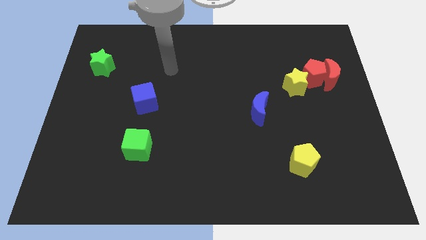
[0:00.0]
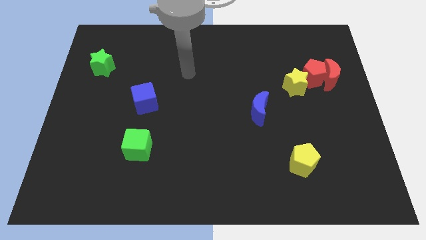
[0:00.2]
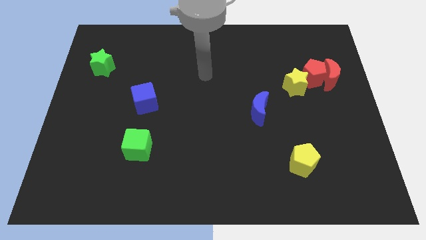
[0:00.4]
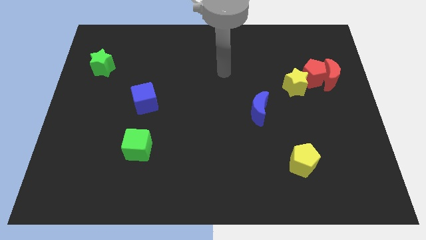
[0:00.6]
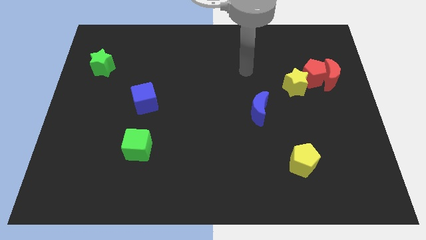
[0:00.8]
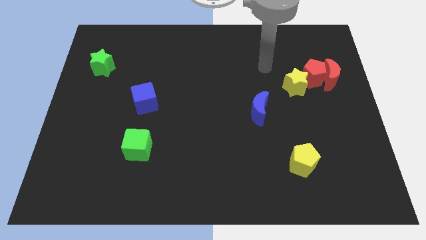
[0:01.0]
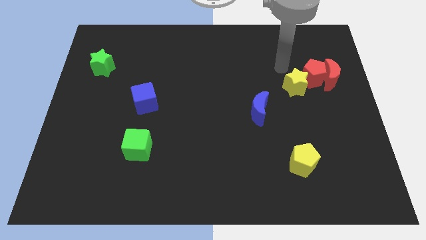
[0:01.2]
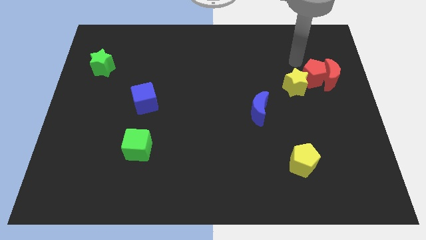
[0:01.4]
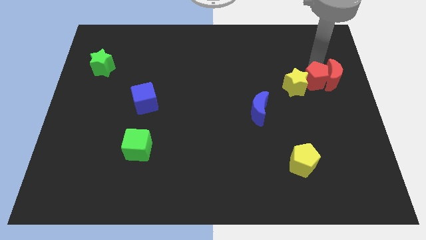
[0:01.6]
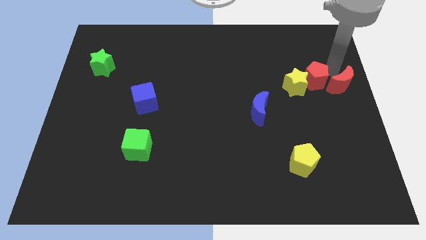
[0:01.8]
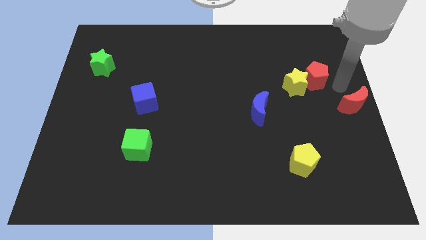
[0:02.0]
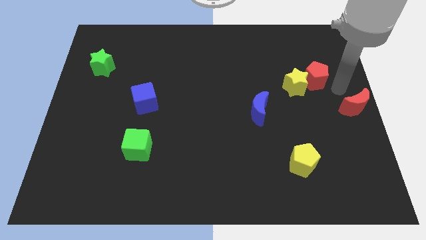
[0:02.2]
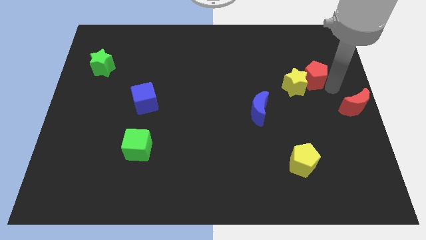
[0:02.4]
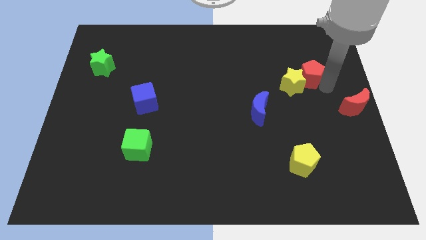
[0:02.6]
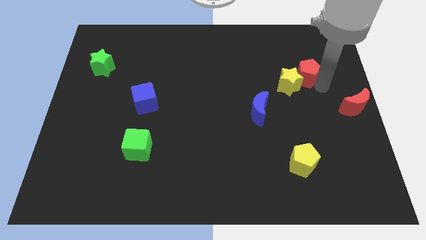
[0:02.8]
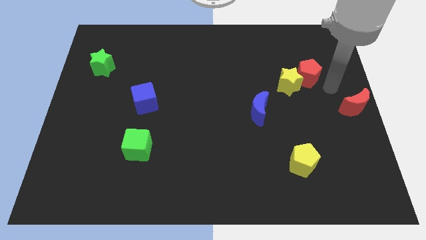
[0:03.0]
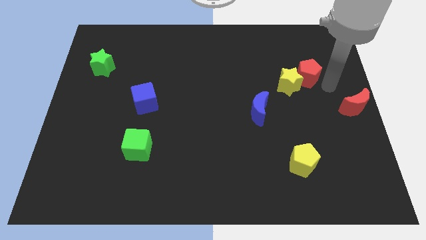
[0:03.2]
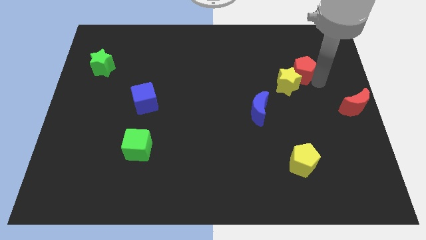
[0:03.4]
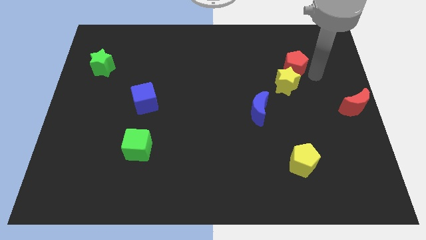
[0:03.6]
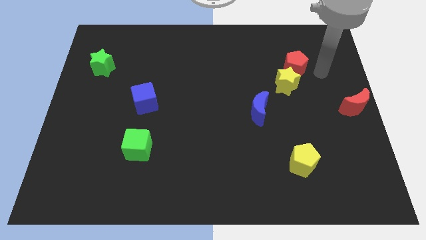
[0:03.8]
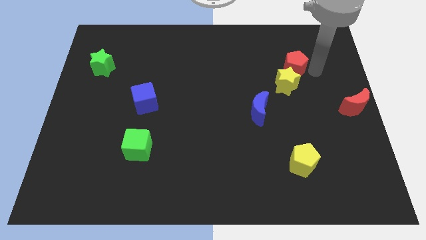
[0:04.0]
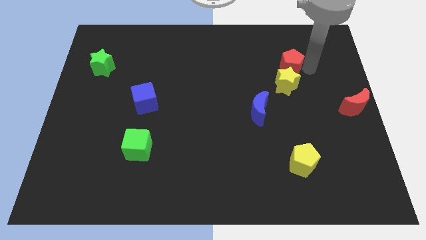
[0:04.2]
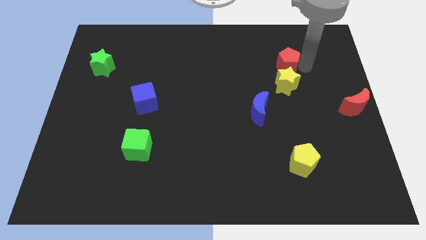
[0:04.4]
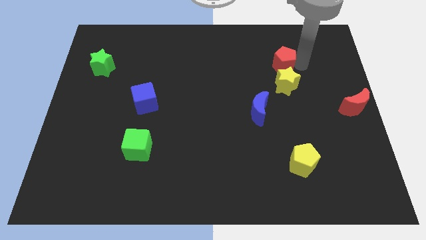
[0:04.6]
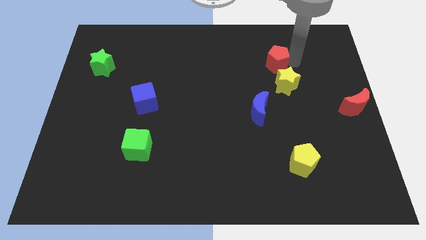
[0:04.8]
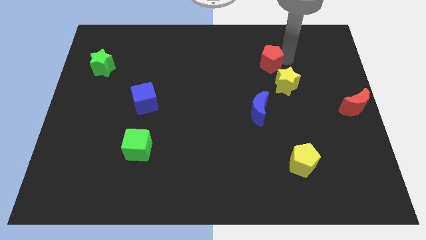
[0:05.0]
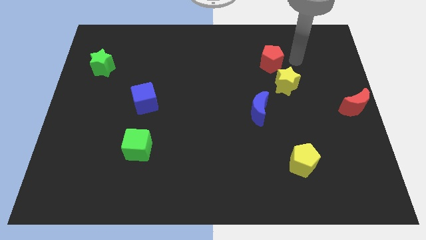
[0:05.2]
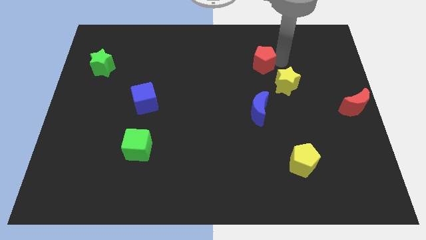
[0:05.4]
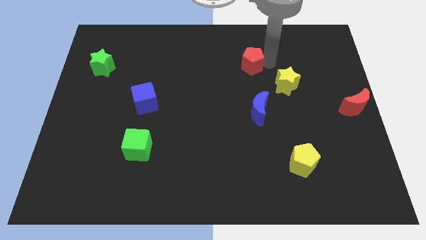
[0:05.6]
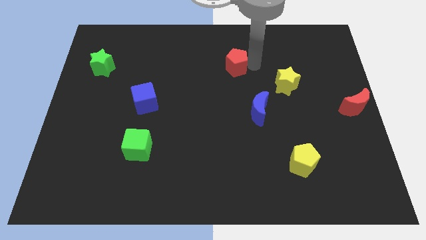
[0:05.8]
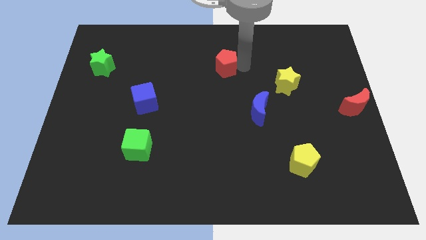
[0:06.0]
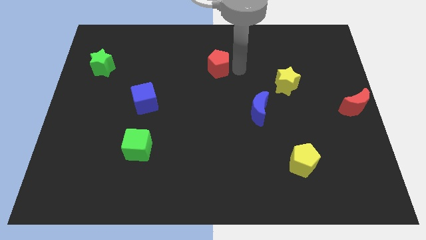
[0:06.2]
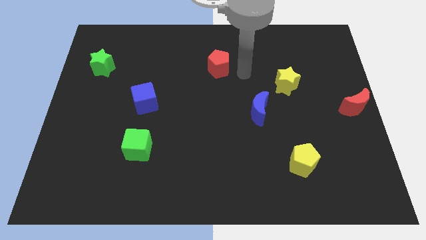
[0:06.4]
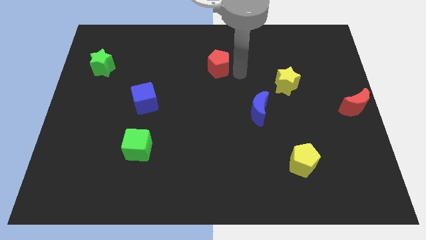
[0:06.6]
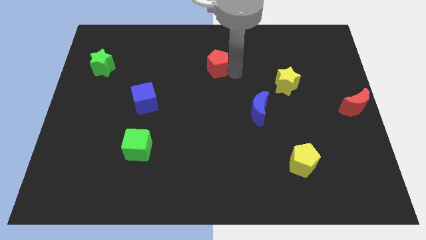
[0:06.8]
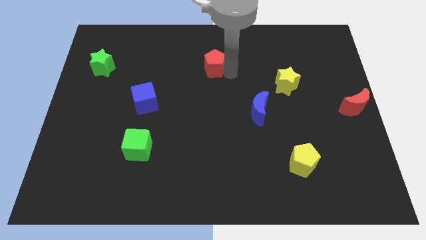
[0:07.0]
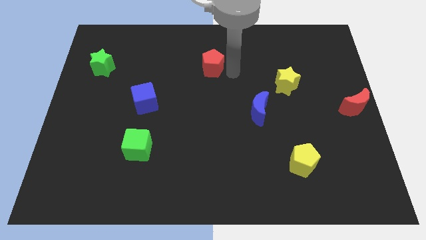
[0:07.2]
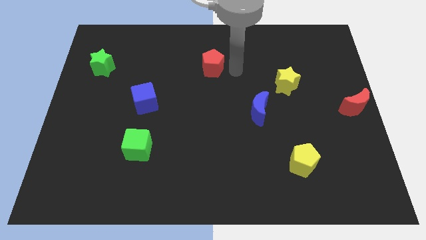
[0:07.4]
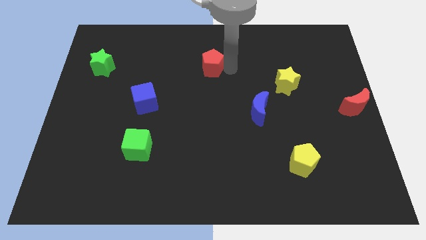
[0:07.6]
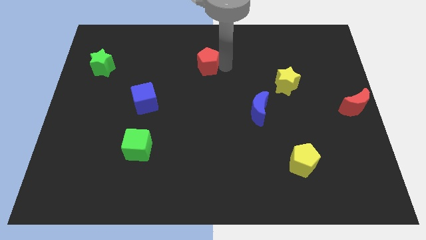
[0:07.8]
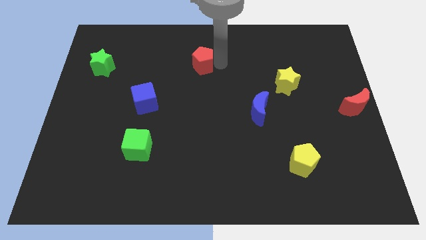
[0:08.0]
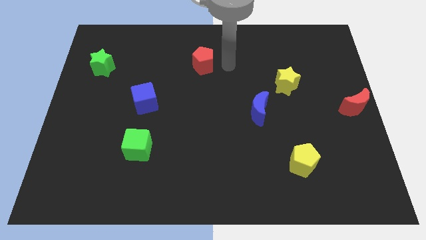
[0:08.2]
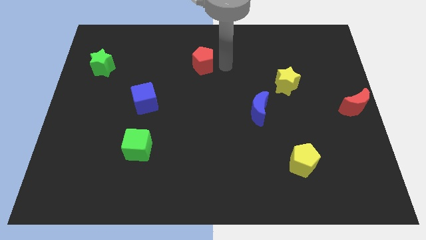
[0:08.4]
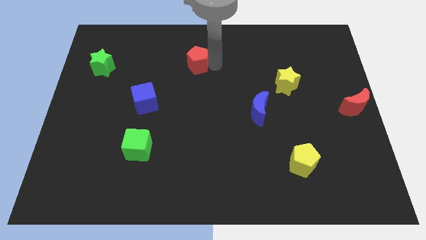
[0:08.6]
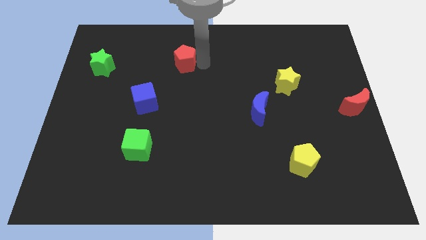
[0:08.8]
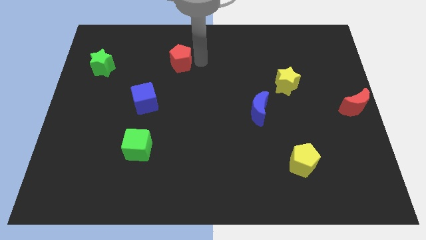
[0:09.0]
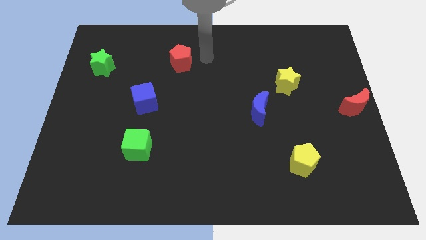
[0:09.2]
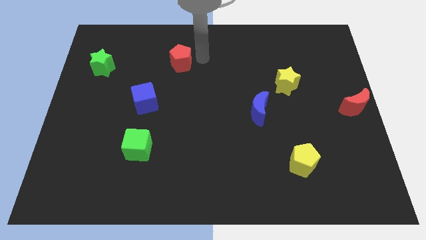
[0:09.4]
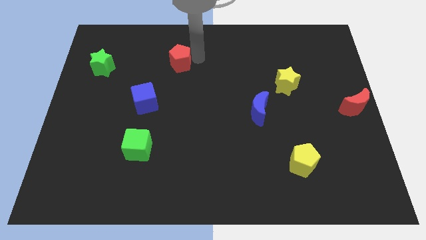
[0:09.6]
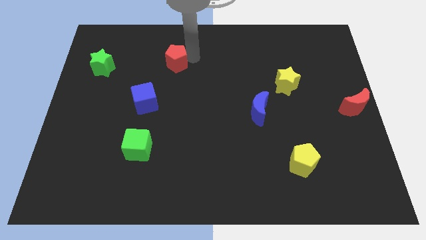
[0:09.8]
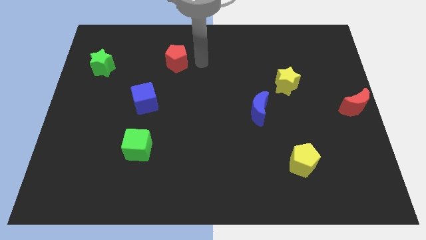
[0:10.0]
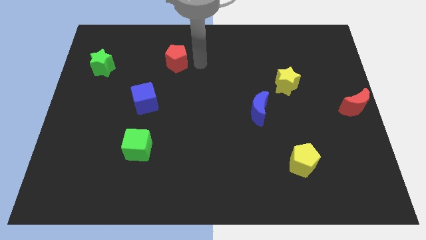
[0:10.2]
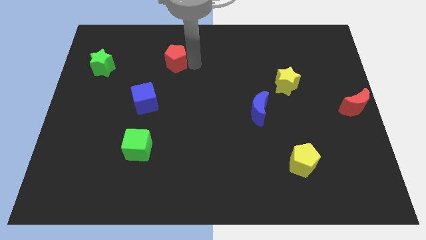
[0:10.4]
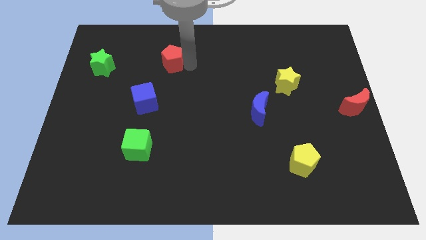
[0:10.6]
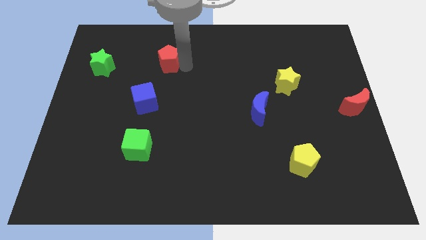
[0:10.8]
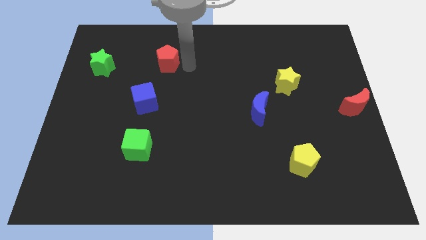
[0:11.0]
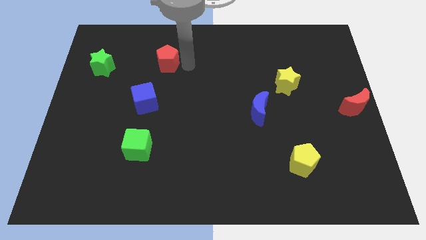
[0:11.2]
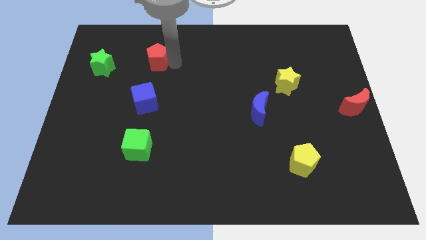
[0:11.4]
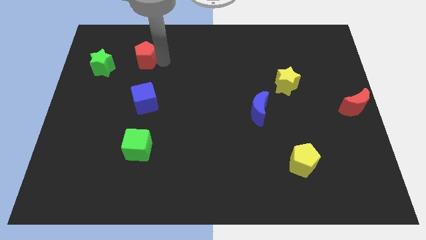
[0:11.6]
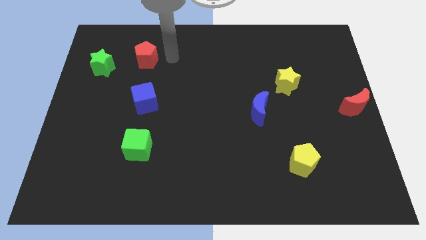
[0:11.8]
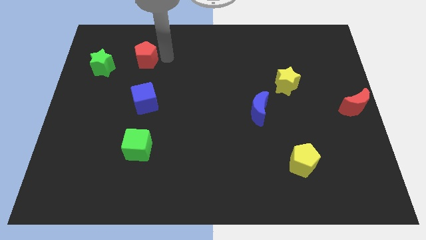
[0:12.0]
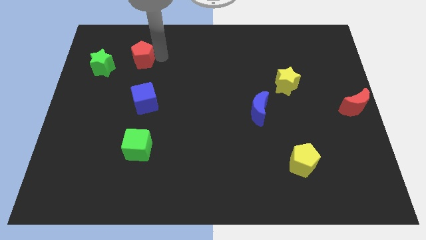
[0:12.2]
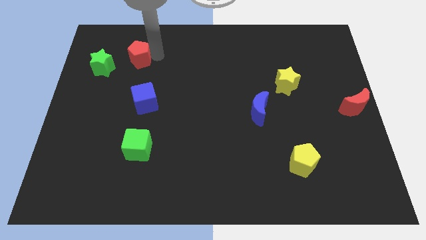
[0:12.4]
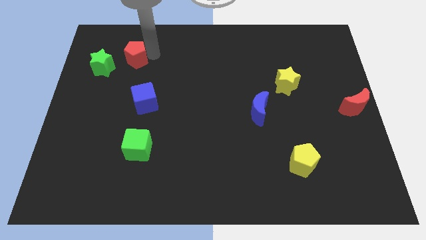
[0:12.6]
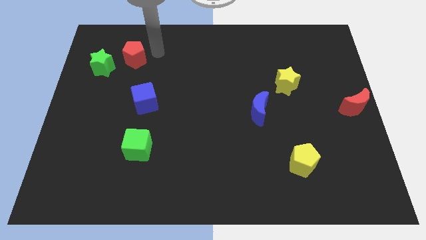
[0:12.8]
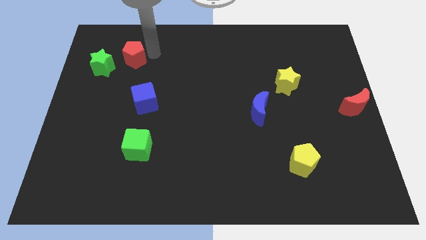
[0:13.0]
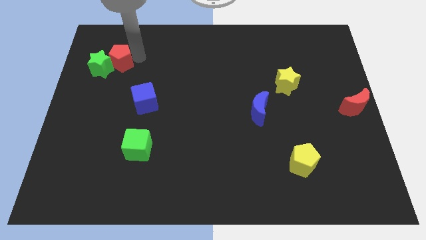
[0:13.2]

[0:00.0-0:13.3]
slide the red pentagon towards the green star
